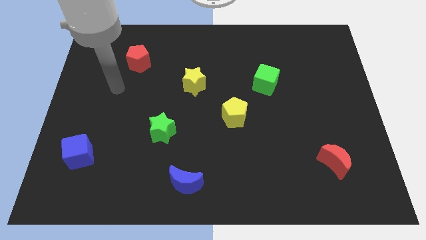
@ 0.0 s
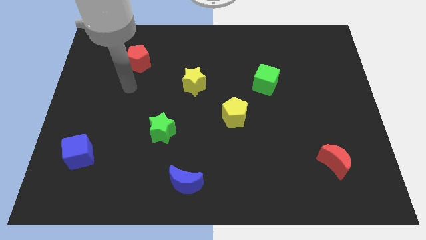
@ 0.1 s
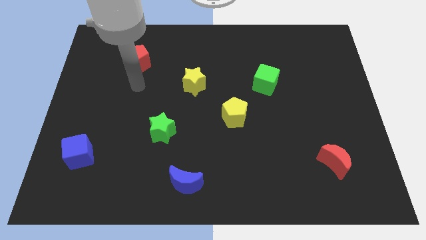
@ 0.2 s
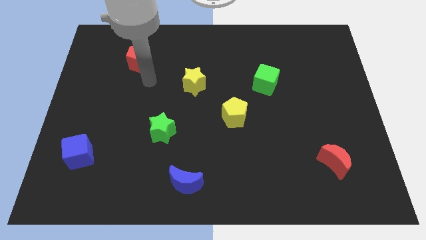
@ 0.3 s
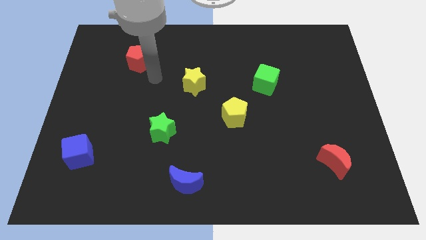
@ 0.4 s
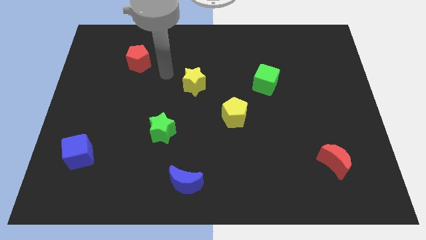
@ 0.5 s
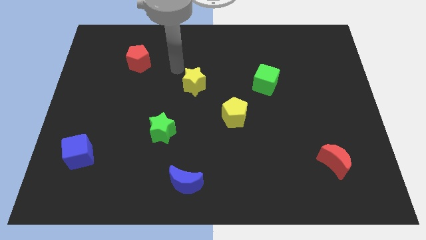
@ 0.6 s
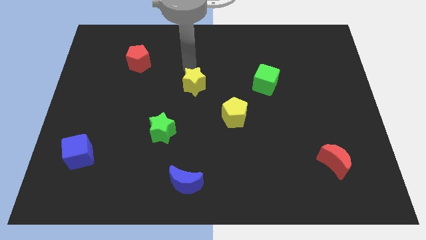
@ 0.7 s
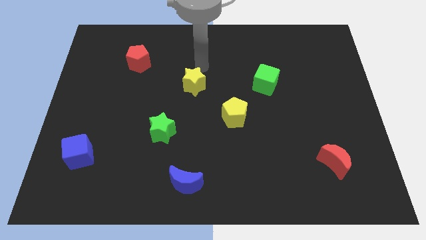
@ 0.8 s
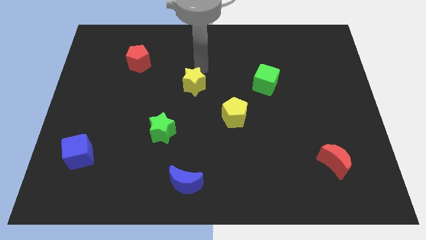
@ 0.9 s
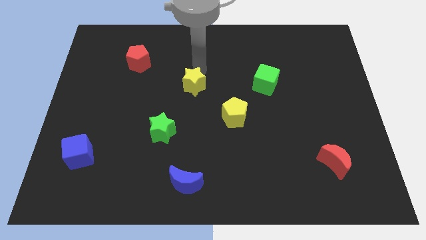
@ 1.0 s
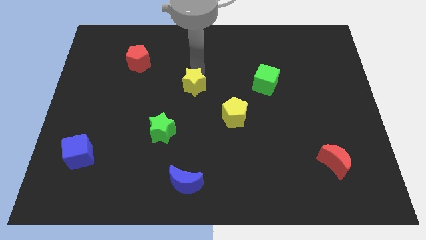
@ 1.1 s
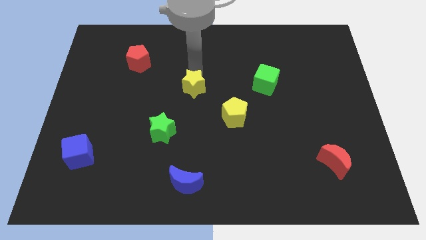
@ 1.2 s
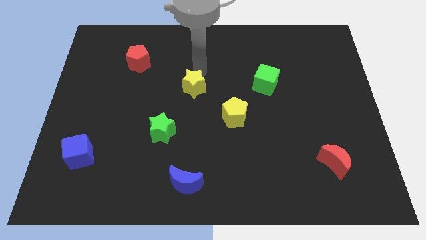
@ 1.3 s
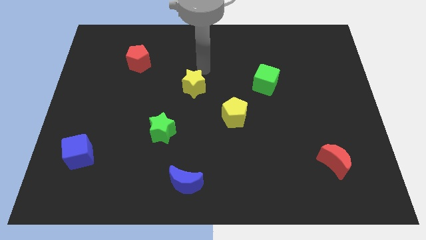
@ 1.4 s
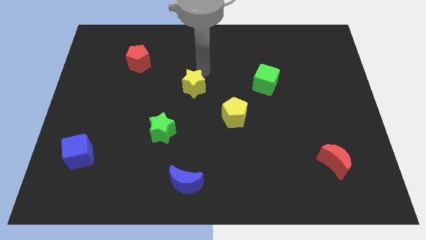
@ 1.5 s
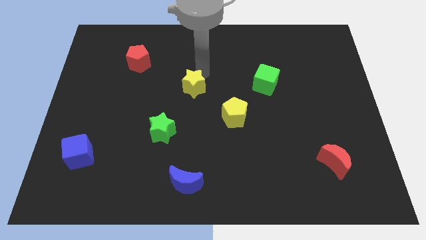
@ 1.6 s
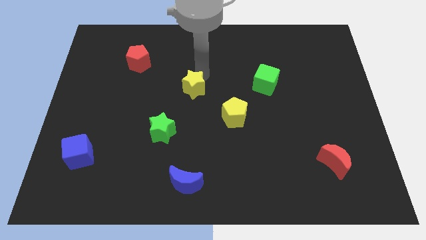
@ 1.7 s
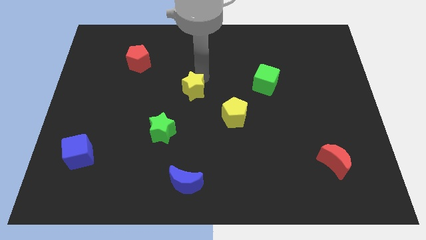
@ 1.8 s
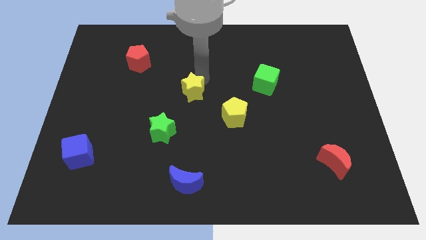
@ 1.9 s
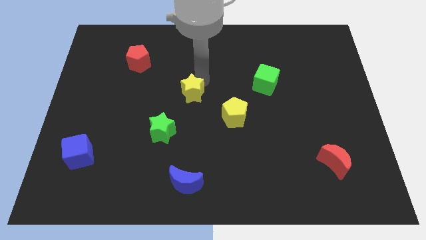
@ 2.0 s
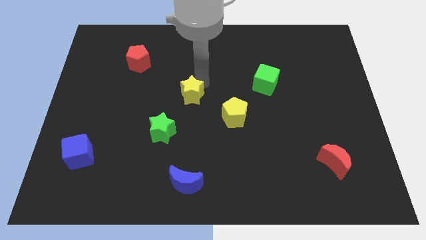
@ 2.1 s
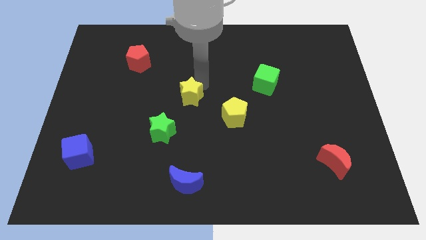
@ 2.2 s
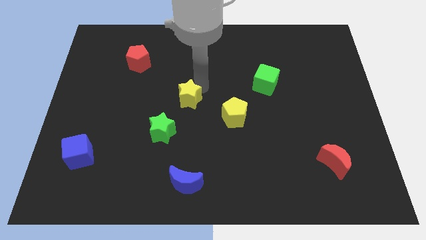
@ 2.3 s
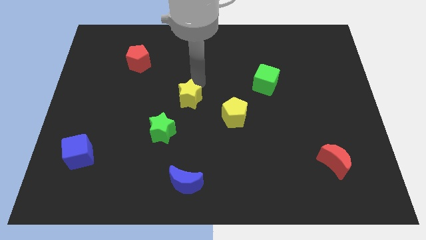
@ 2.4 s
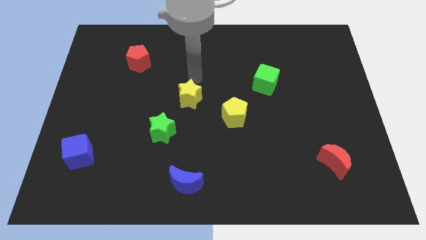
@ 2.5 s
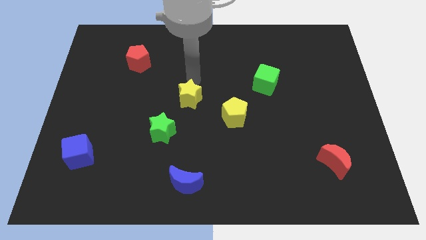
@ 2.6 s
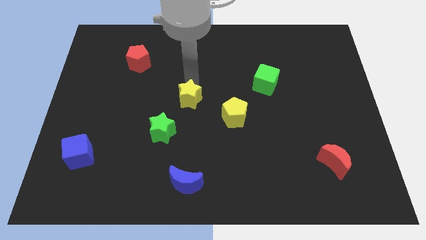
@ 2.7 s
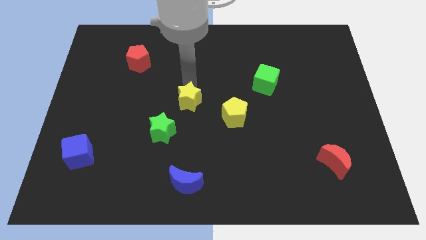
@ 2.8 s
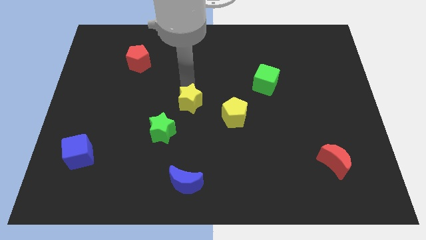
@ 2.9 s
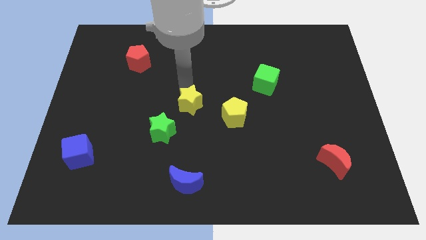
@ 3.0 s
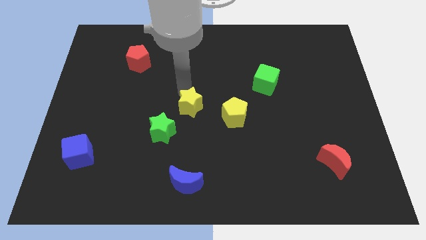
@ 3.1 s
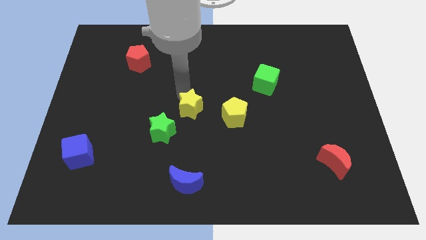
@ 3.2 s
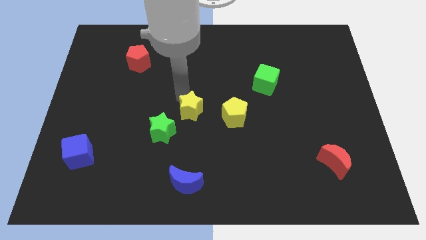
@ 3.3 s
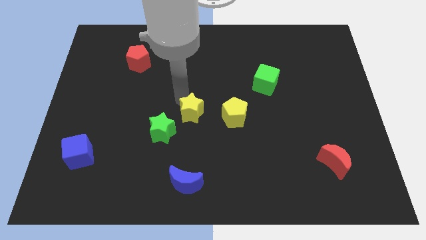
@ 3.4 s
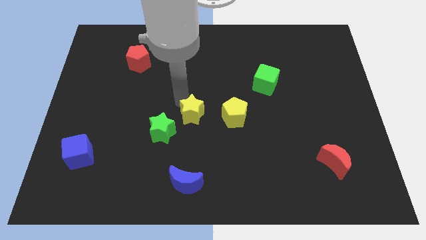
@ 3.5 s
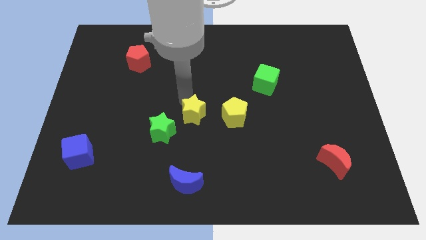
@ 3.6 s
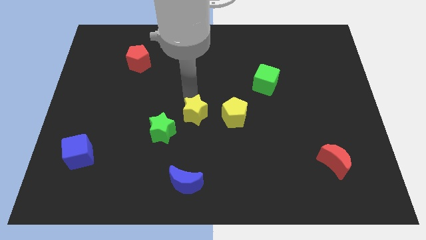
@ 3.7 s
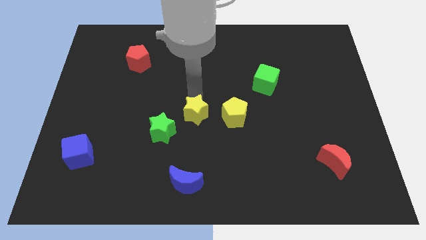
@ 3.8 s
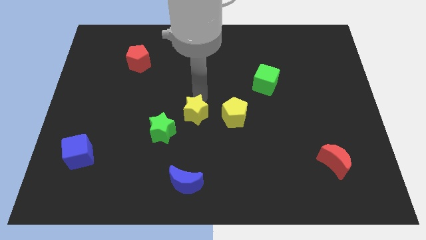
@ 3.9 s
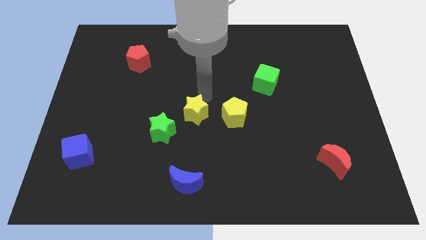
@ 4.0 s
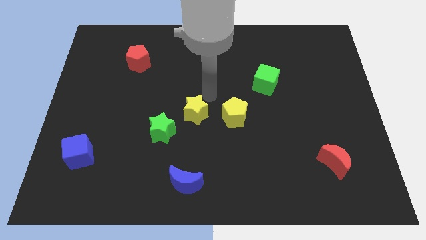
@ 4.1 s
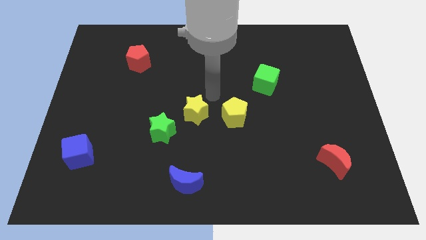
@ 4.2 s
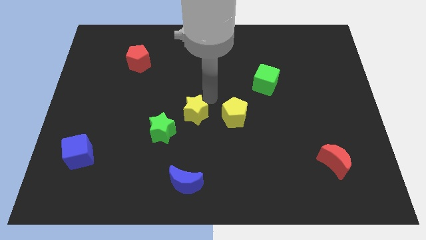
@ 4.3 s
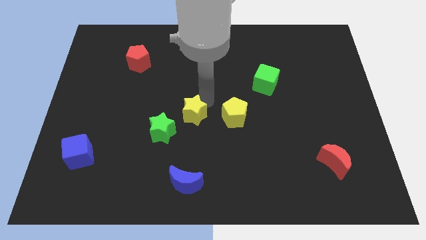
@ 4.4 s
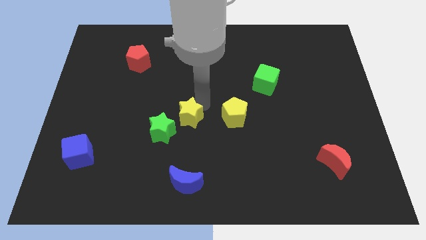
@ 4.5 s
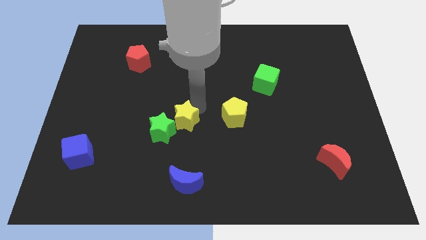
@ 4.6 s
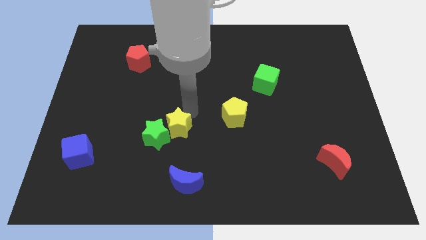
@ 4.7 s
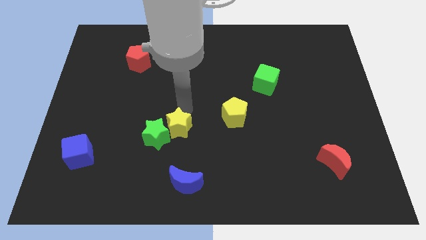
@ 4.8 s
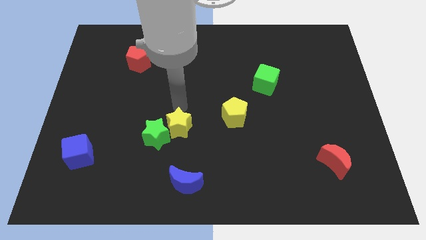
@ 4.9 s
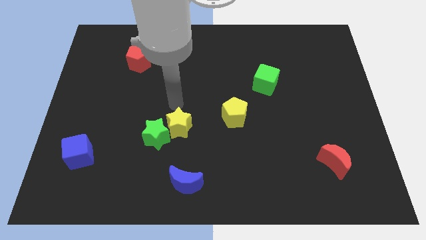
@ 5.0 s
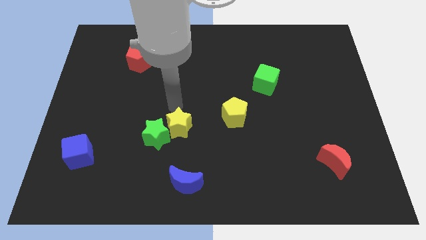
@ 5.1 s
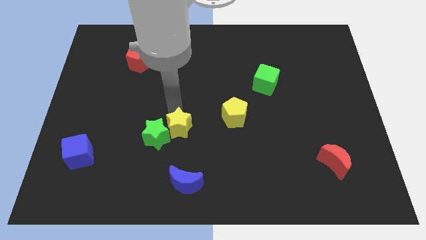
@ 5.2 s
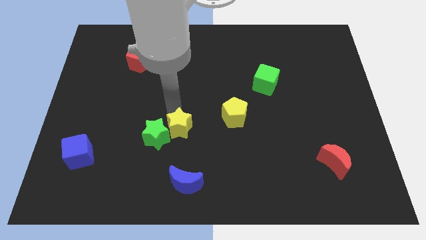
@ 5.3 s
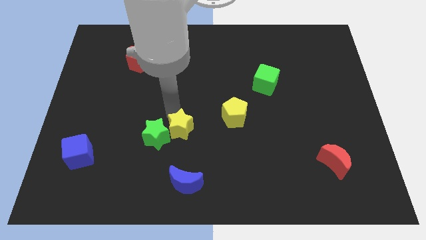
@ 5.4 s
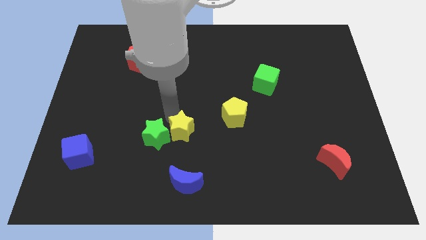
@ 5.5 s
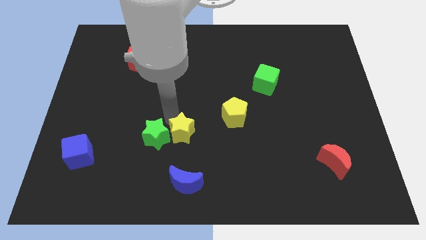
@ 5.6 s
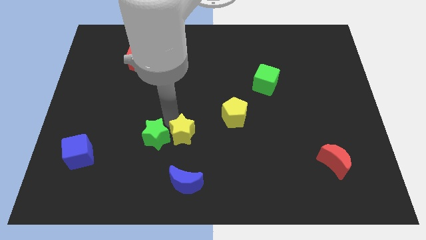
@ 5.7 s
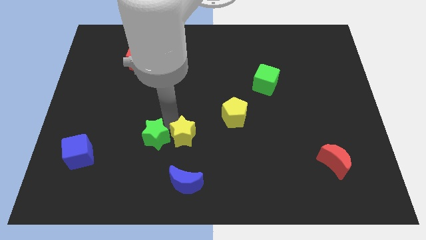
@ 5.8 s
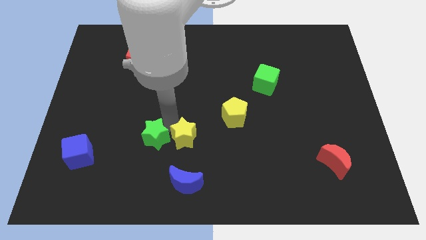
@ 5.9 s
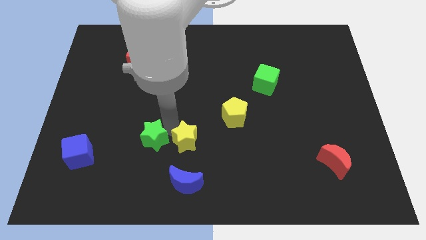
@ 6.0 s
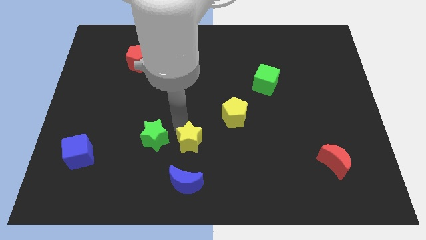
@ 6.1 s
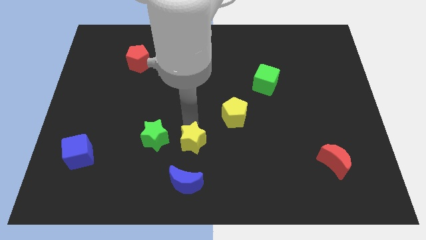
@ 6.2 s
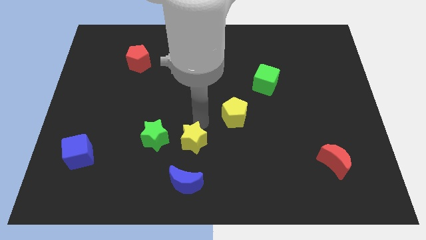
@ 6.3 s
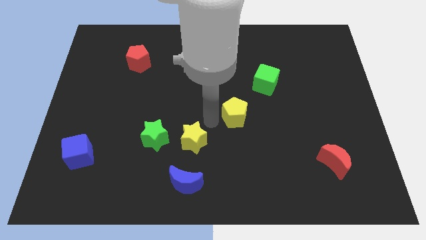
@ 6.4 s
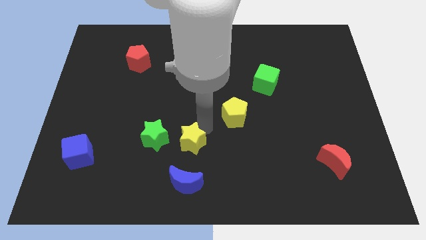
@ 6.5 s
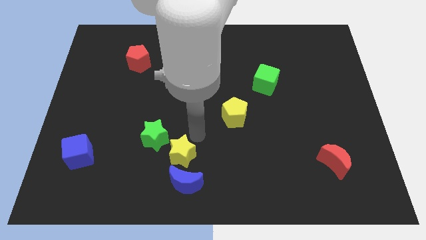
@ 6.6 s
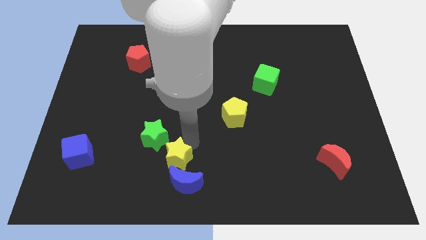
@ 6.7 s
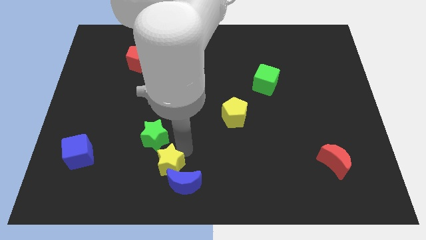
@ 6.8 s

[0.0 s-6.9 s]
move the yellow star below the green star
